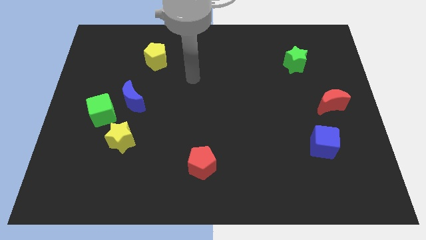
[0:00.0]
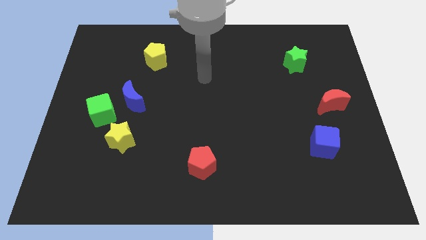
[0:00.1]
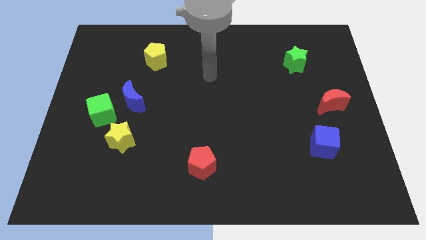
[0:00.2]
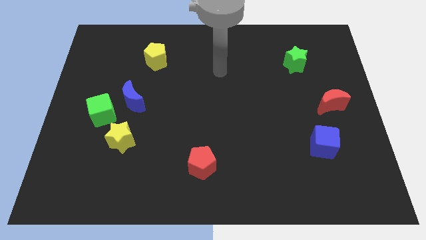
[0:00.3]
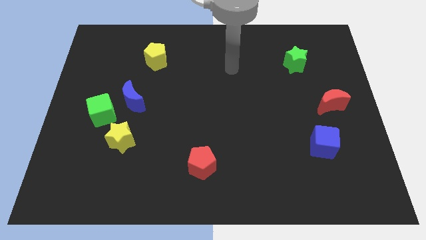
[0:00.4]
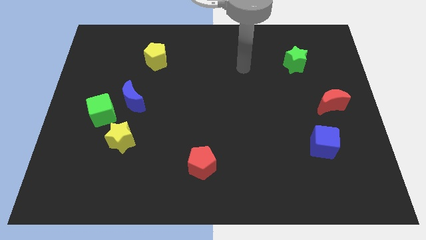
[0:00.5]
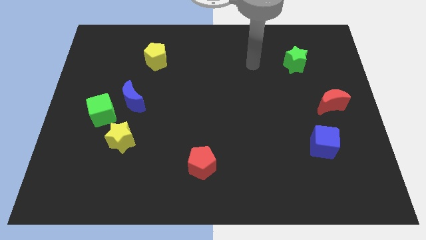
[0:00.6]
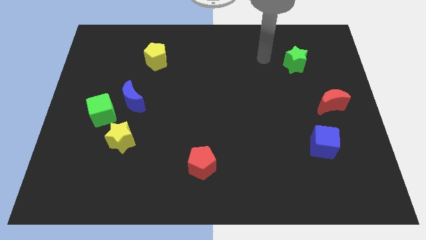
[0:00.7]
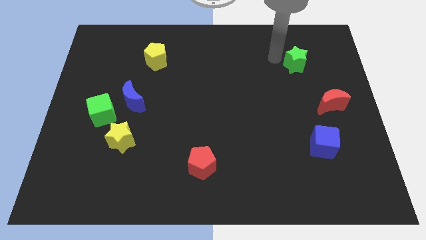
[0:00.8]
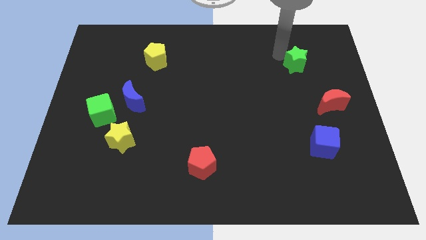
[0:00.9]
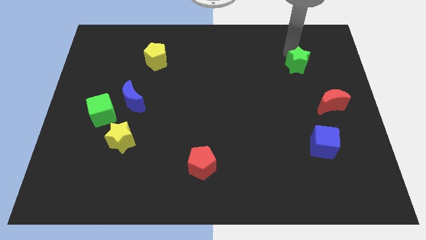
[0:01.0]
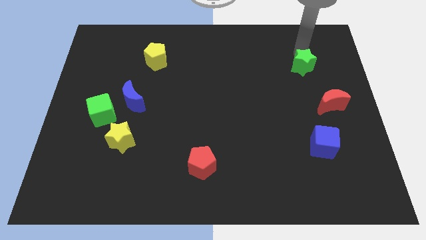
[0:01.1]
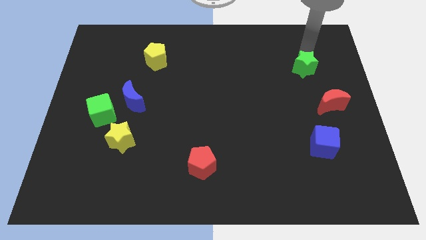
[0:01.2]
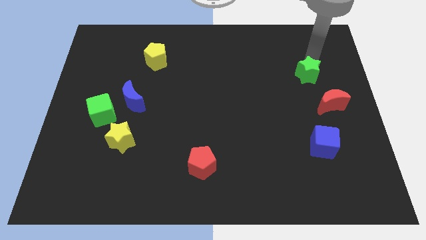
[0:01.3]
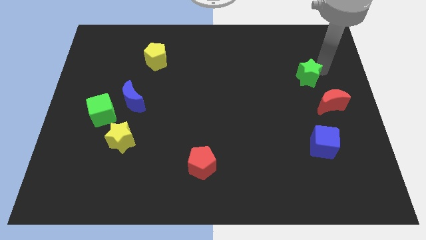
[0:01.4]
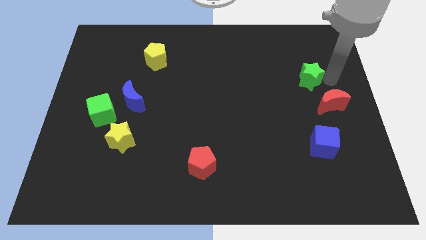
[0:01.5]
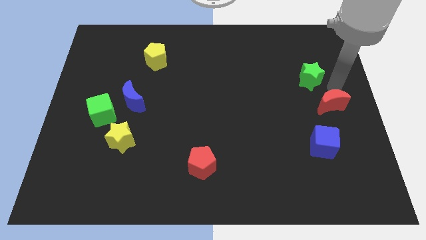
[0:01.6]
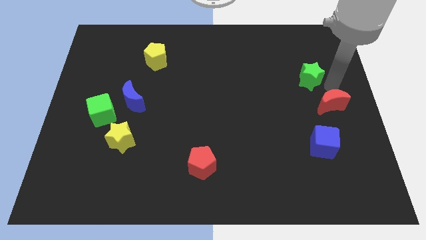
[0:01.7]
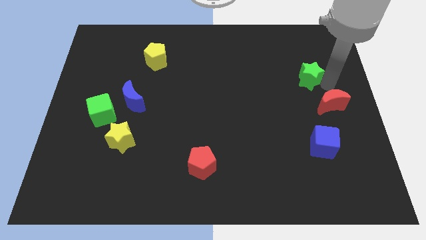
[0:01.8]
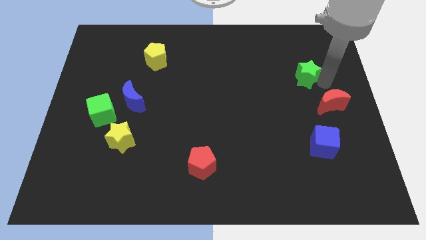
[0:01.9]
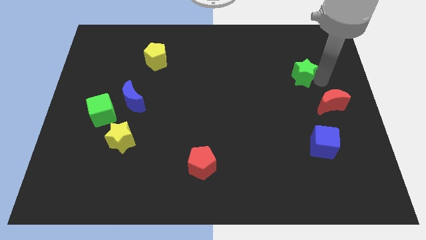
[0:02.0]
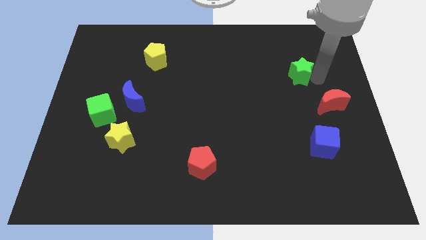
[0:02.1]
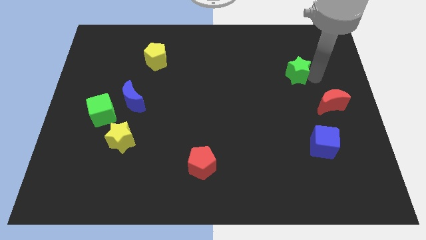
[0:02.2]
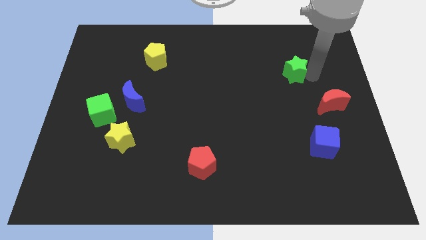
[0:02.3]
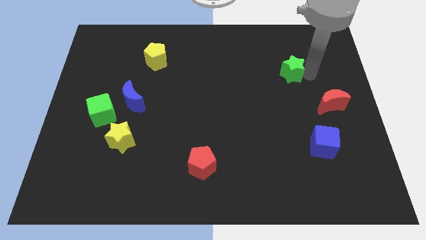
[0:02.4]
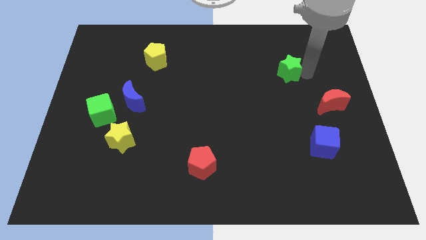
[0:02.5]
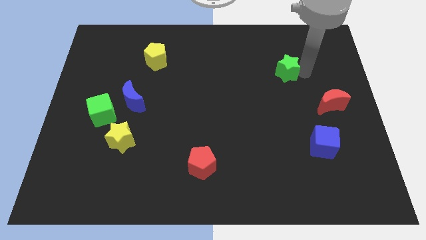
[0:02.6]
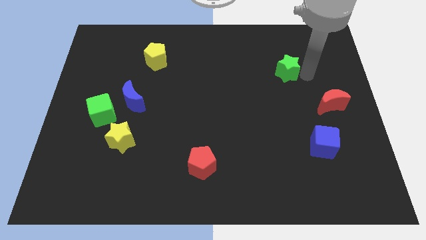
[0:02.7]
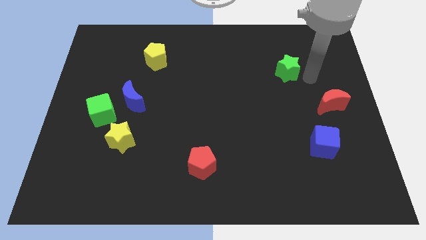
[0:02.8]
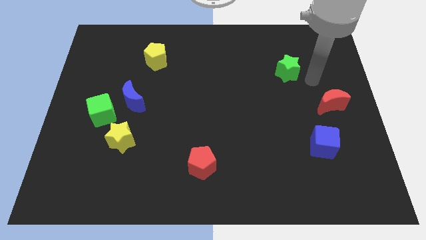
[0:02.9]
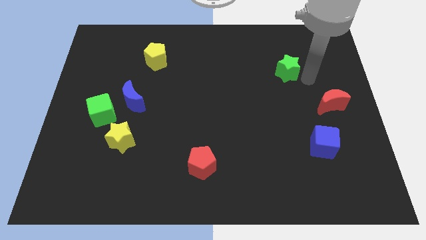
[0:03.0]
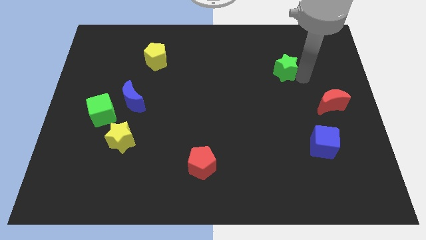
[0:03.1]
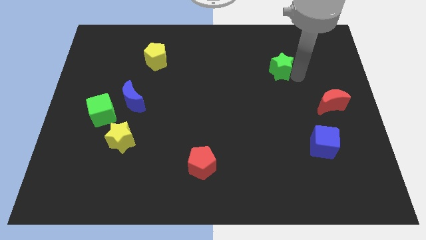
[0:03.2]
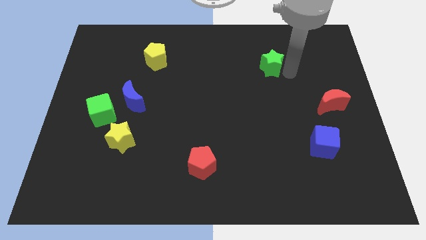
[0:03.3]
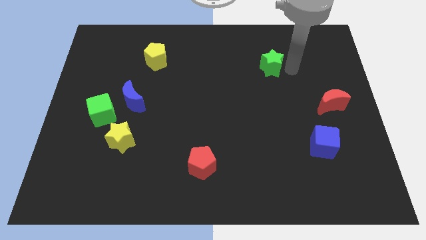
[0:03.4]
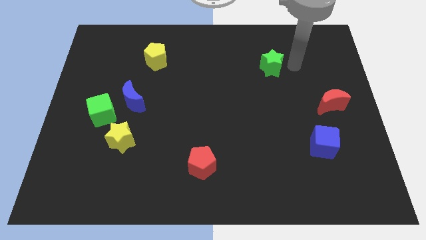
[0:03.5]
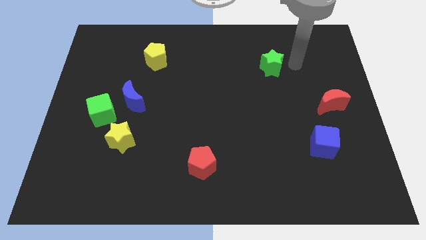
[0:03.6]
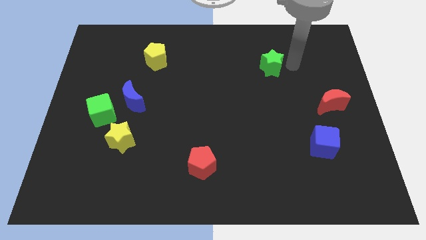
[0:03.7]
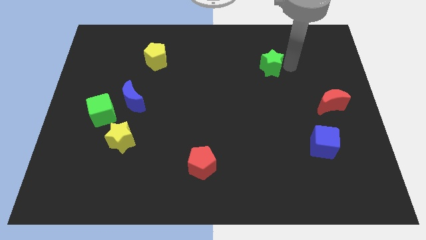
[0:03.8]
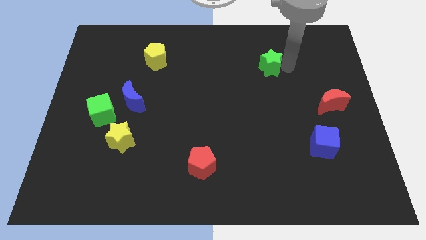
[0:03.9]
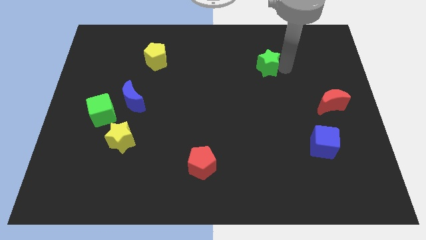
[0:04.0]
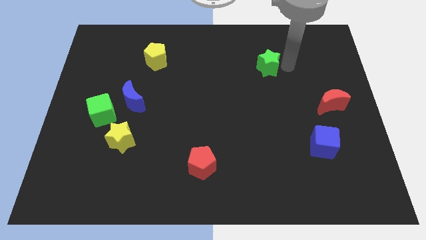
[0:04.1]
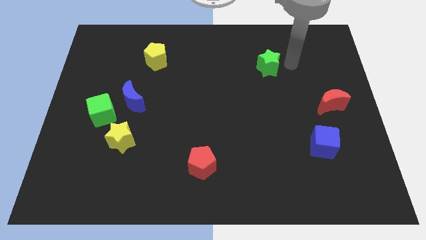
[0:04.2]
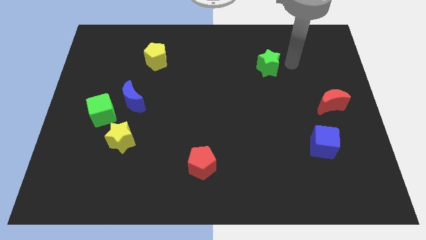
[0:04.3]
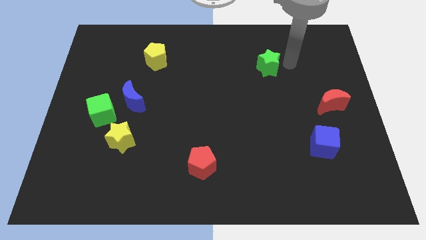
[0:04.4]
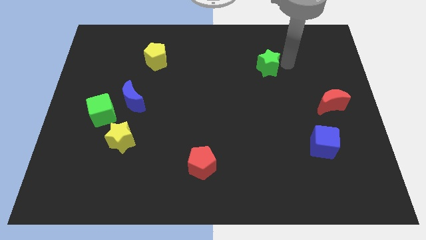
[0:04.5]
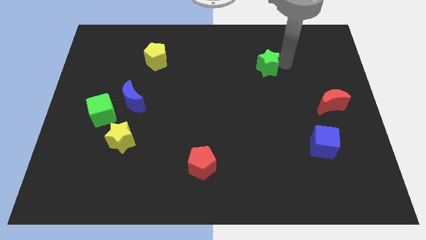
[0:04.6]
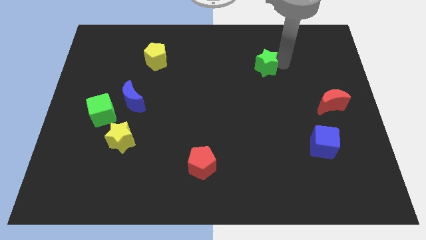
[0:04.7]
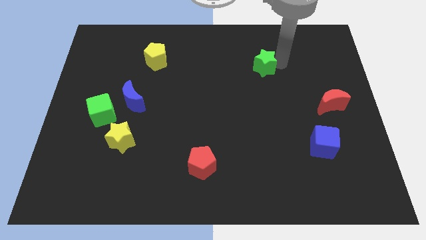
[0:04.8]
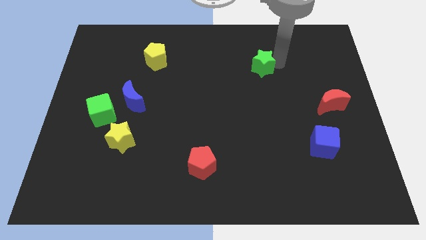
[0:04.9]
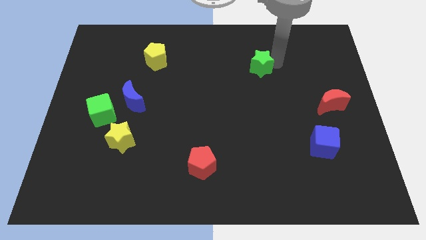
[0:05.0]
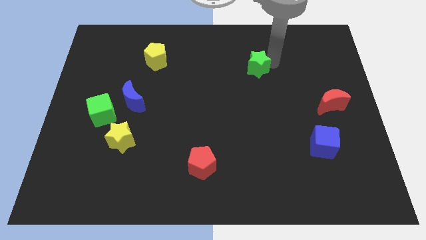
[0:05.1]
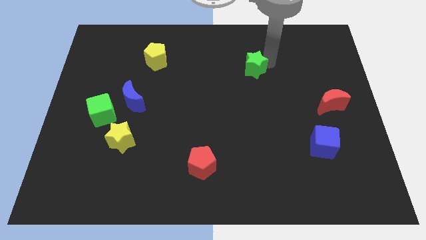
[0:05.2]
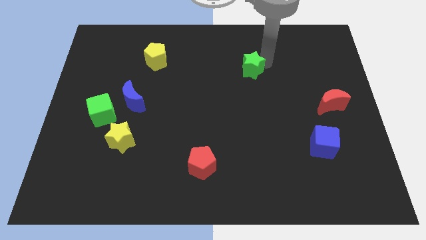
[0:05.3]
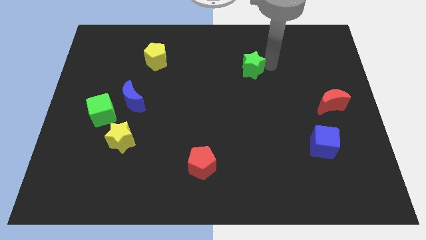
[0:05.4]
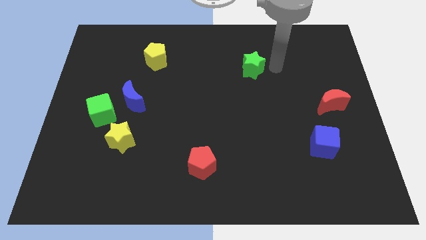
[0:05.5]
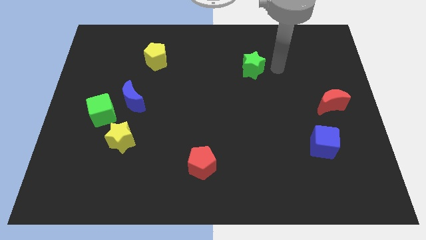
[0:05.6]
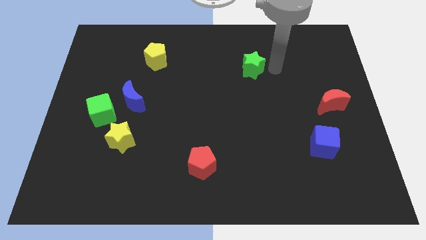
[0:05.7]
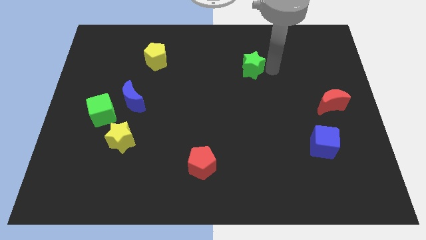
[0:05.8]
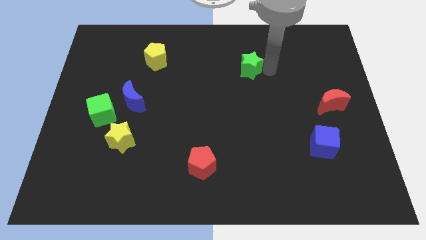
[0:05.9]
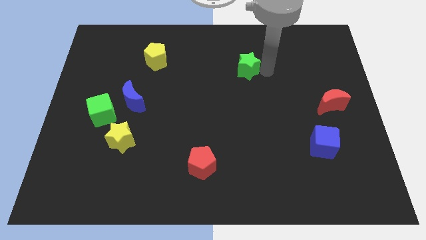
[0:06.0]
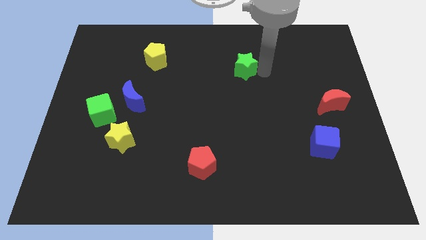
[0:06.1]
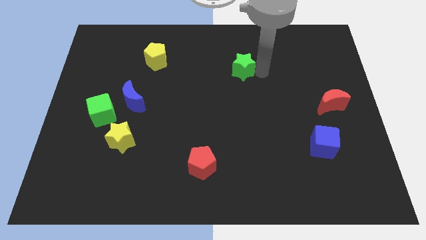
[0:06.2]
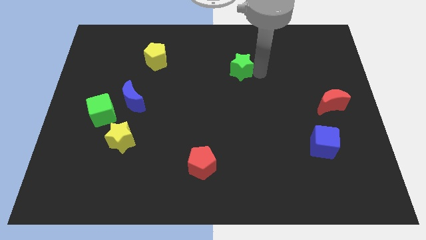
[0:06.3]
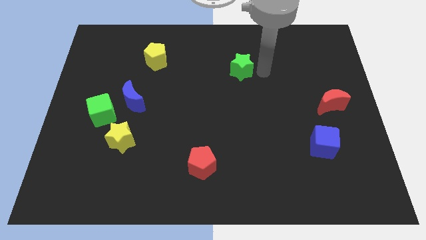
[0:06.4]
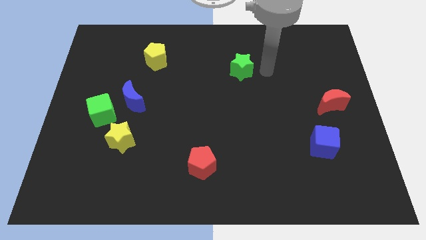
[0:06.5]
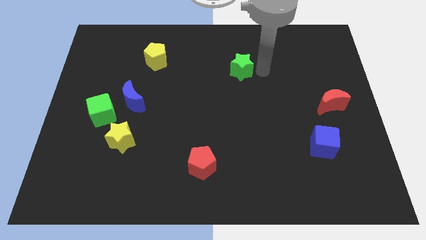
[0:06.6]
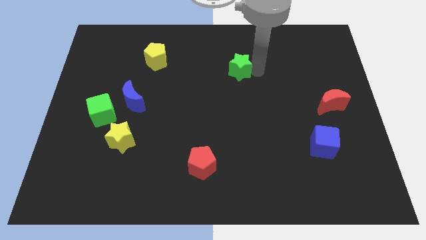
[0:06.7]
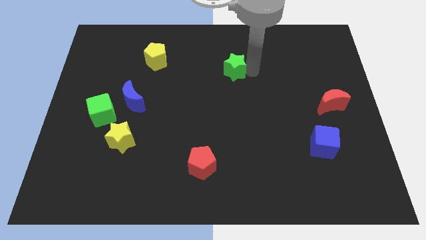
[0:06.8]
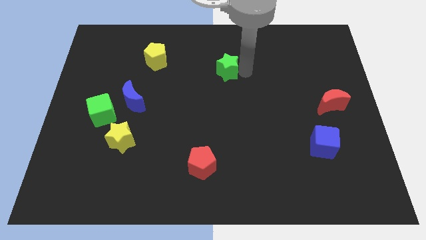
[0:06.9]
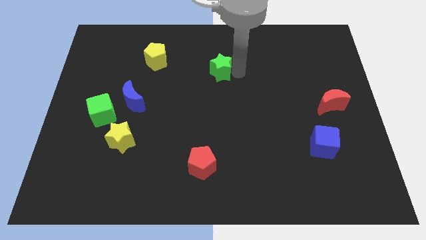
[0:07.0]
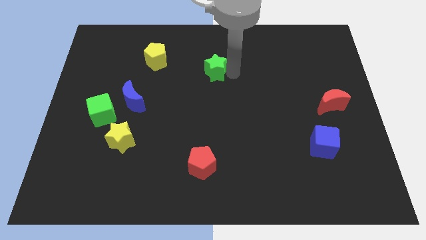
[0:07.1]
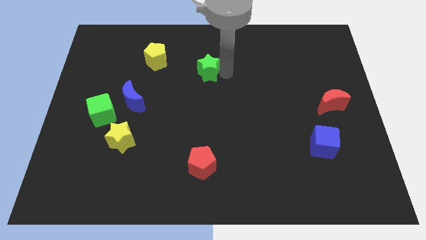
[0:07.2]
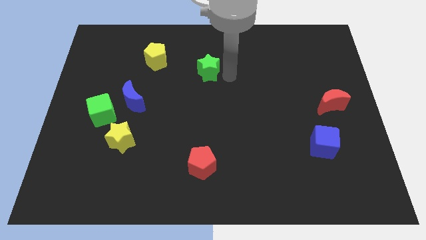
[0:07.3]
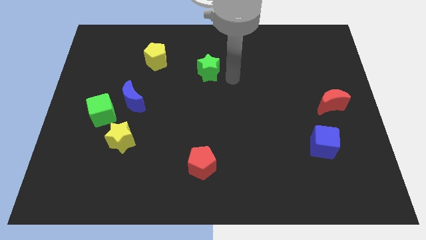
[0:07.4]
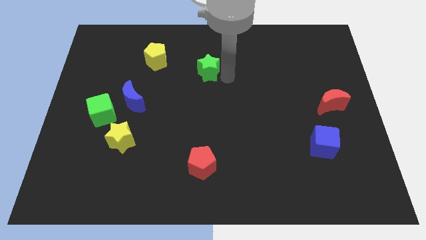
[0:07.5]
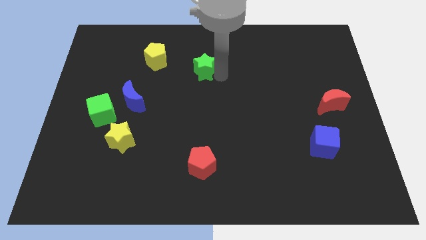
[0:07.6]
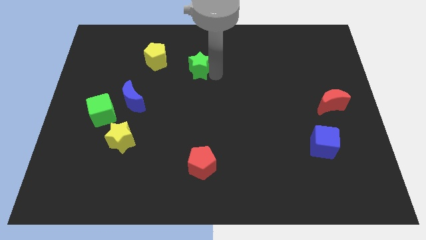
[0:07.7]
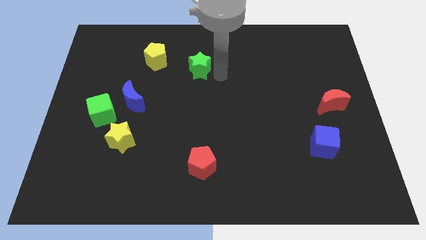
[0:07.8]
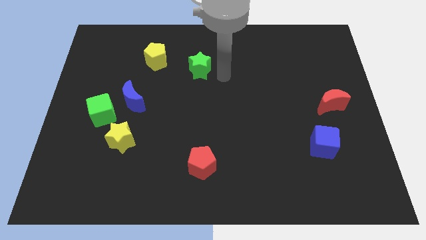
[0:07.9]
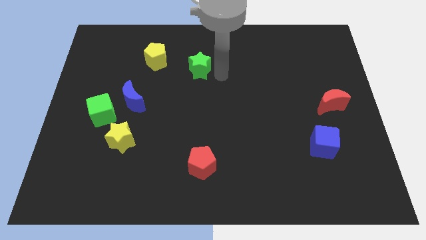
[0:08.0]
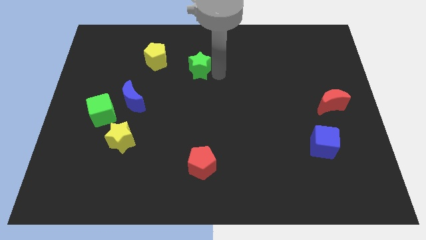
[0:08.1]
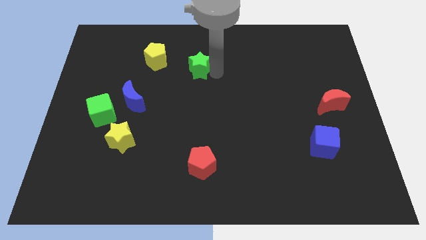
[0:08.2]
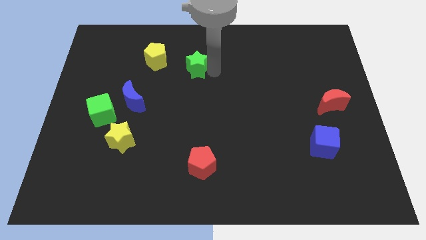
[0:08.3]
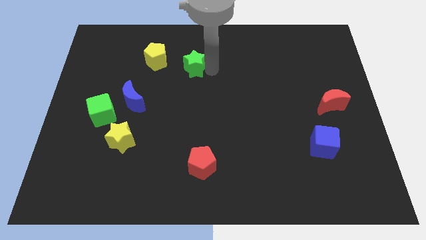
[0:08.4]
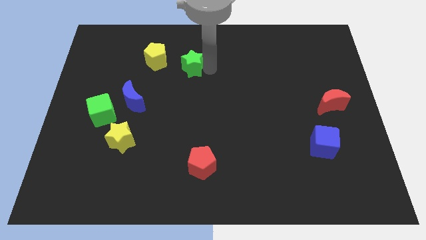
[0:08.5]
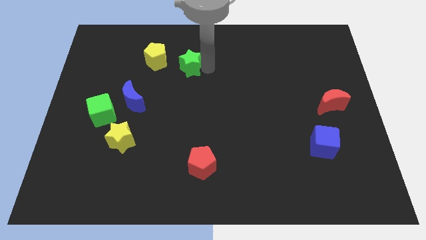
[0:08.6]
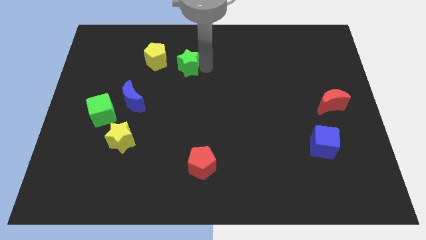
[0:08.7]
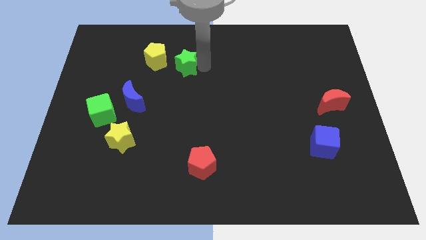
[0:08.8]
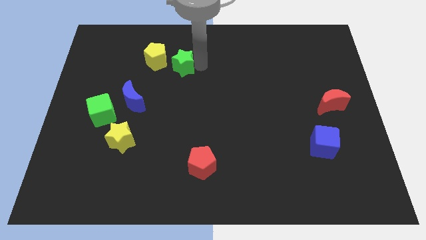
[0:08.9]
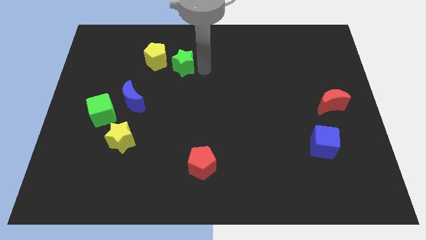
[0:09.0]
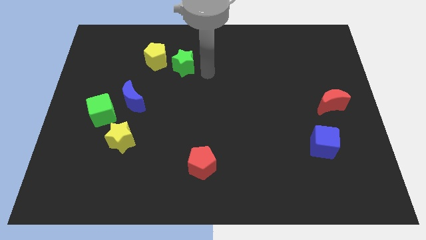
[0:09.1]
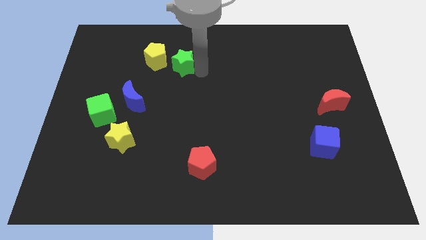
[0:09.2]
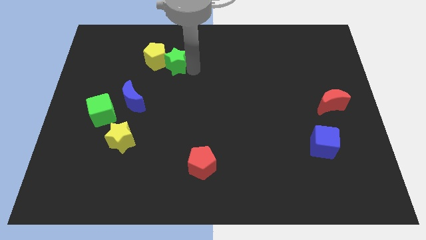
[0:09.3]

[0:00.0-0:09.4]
move the green star next to the yellow pentagon
